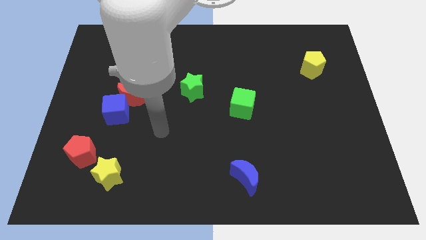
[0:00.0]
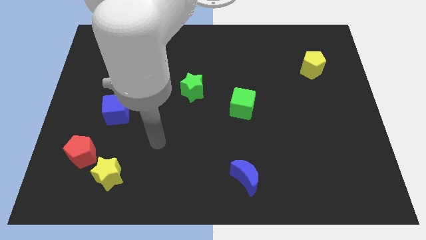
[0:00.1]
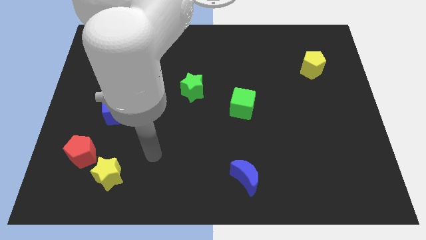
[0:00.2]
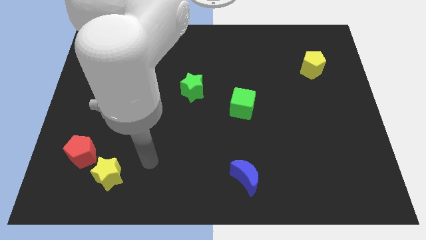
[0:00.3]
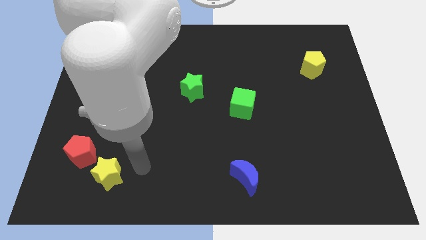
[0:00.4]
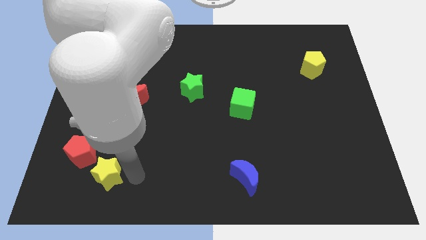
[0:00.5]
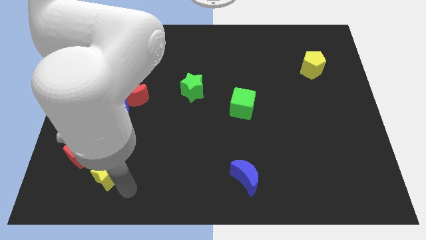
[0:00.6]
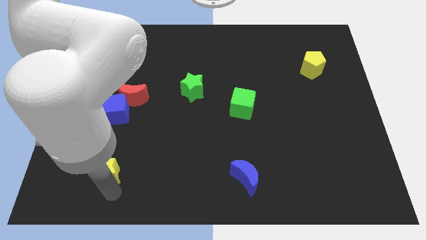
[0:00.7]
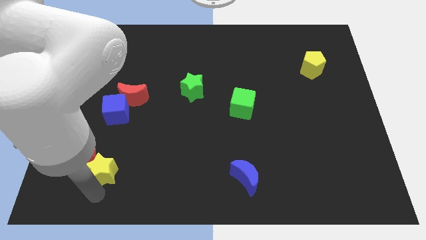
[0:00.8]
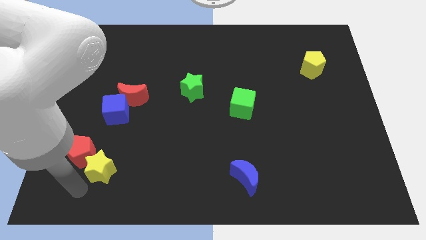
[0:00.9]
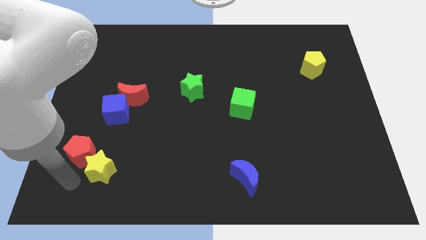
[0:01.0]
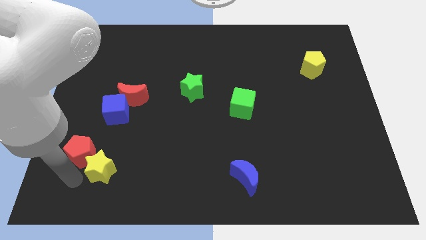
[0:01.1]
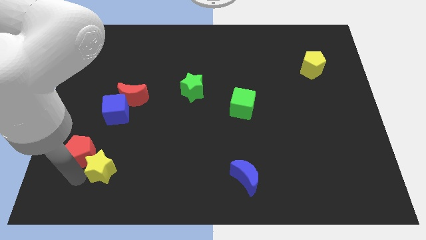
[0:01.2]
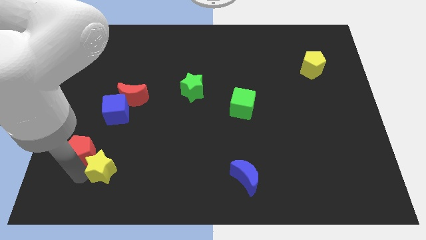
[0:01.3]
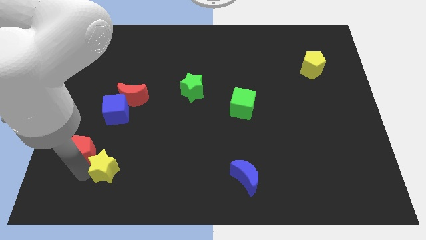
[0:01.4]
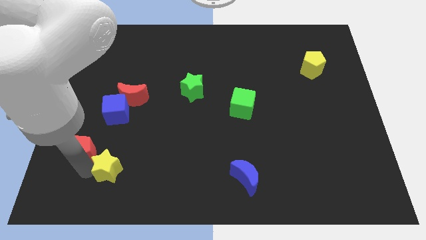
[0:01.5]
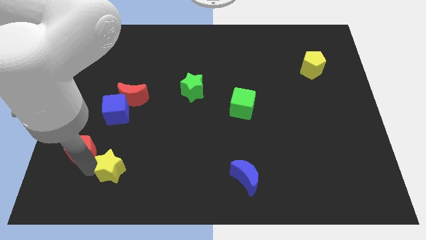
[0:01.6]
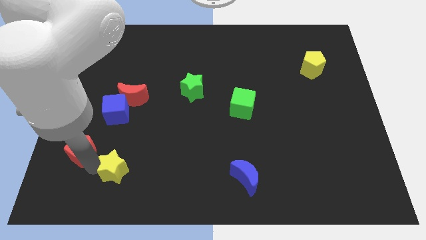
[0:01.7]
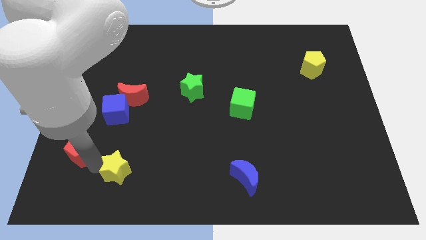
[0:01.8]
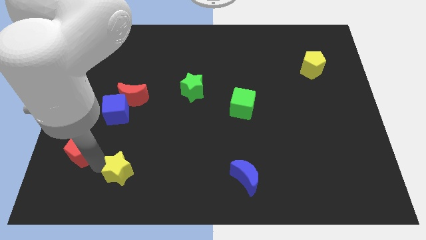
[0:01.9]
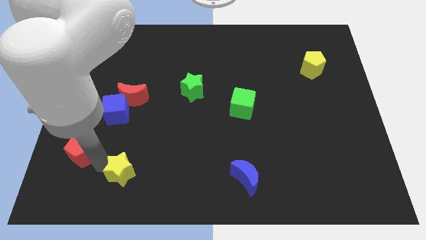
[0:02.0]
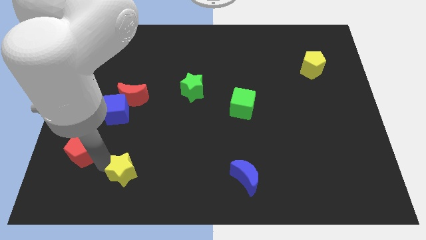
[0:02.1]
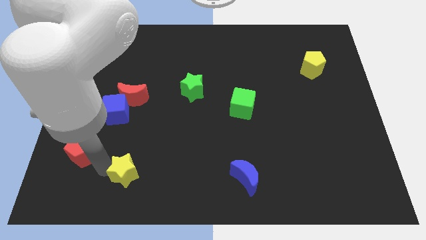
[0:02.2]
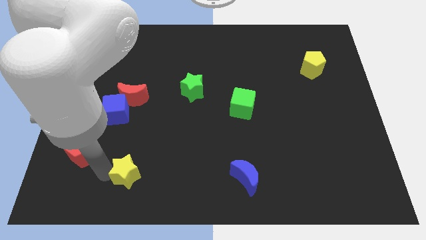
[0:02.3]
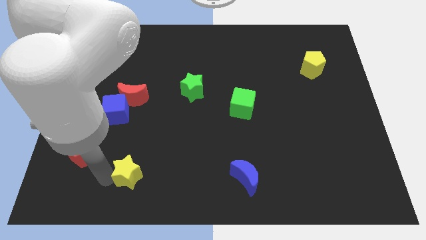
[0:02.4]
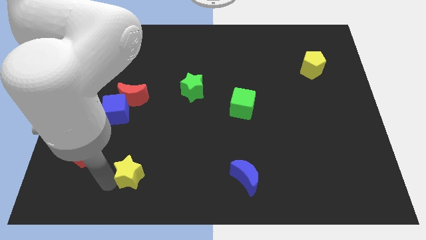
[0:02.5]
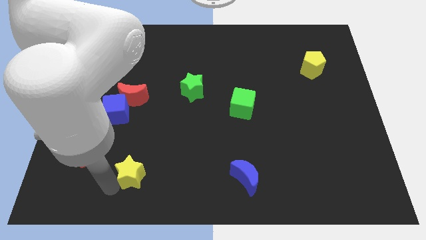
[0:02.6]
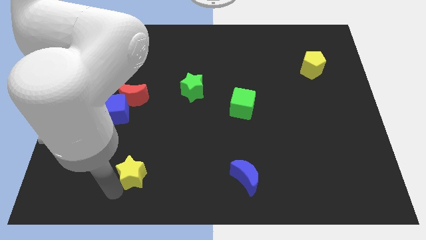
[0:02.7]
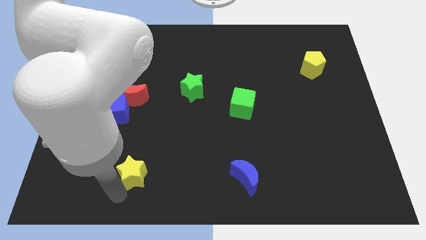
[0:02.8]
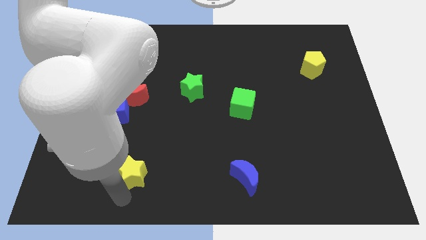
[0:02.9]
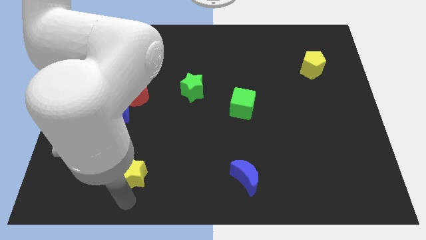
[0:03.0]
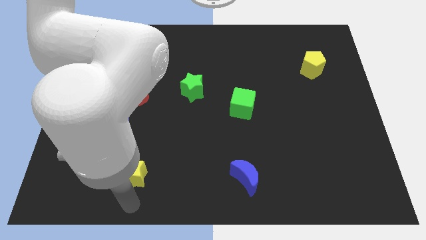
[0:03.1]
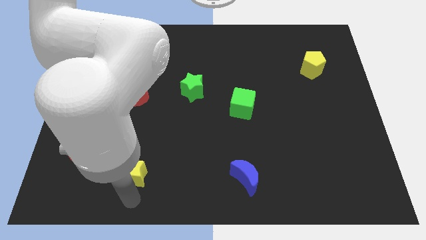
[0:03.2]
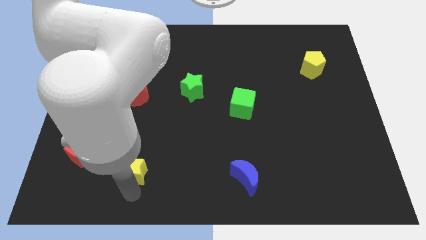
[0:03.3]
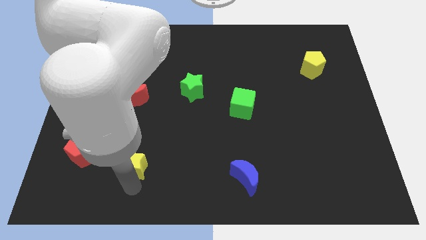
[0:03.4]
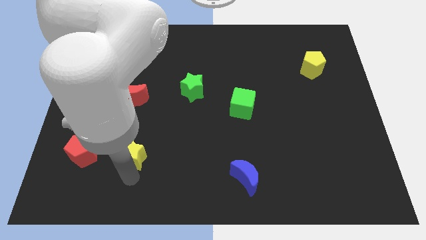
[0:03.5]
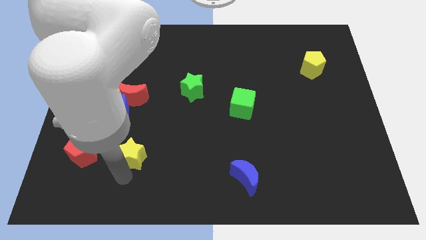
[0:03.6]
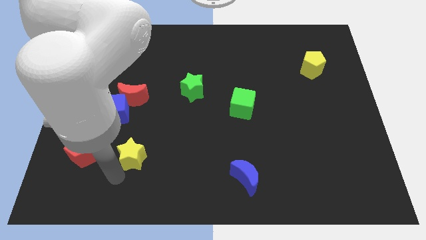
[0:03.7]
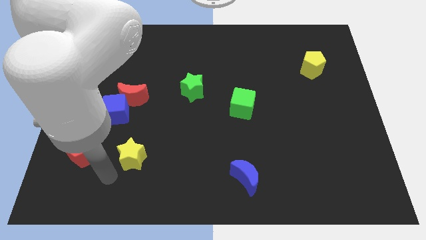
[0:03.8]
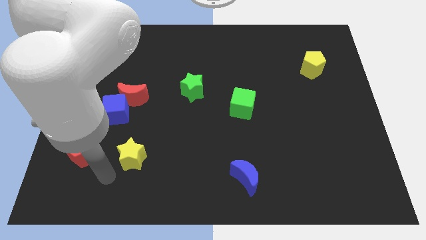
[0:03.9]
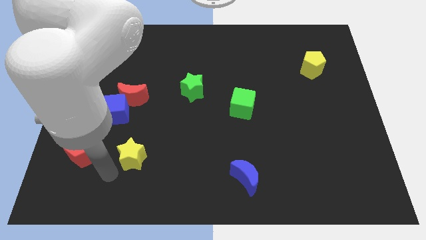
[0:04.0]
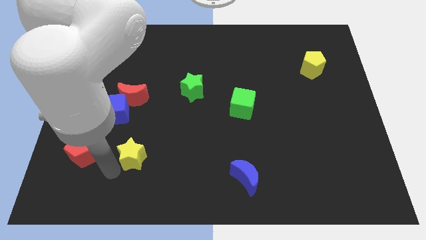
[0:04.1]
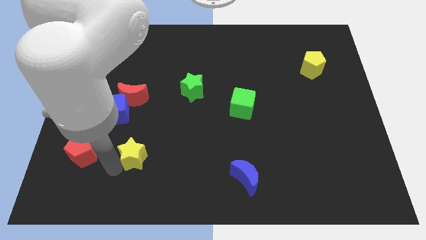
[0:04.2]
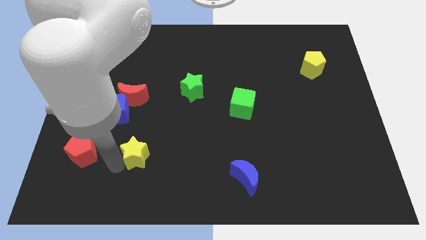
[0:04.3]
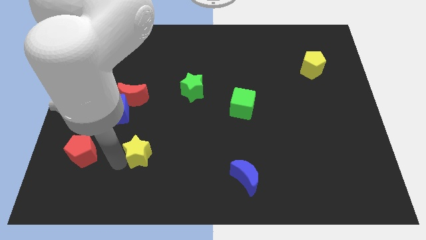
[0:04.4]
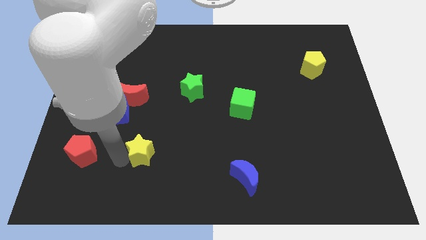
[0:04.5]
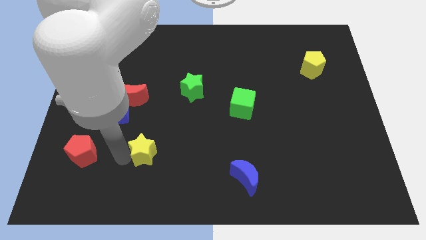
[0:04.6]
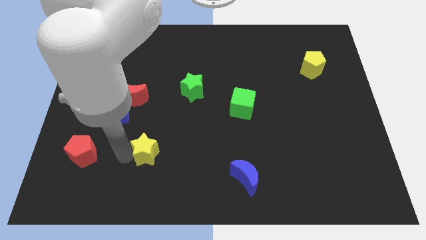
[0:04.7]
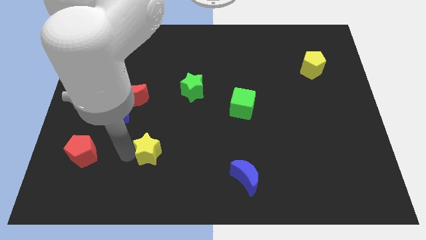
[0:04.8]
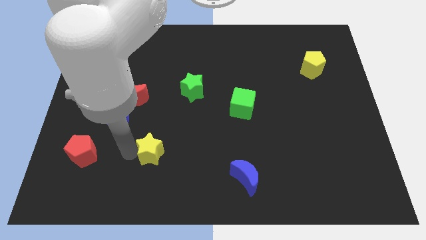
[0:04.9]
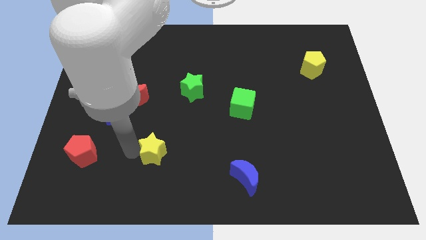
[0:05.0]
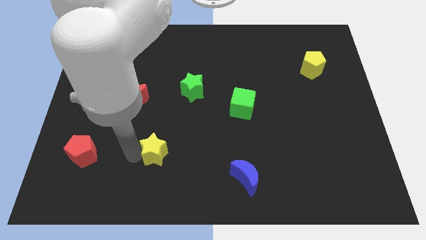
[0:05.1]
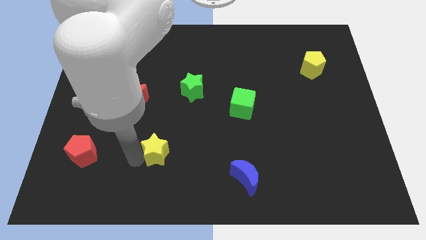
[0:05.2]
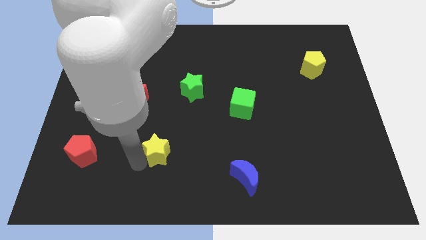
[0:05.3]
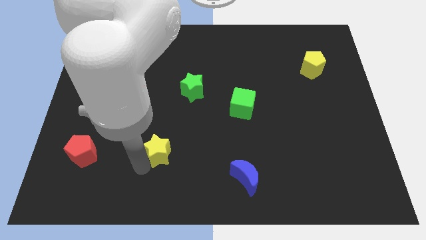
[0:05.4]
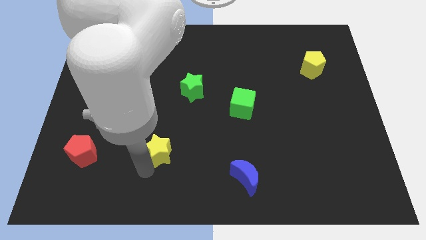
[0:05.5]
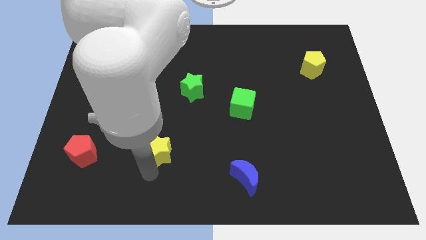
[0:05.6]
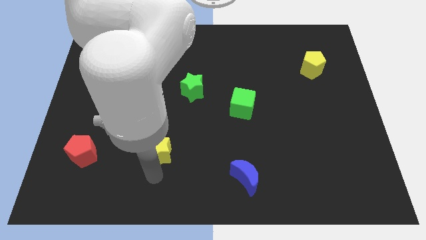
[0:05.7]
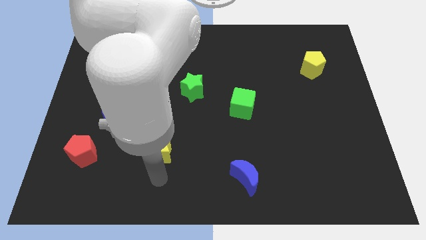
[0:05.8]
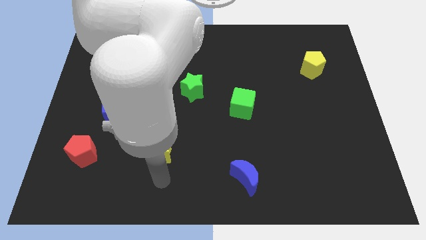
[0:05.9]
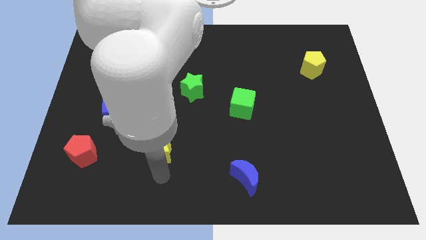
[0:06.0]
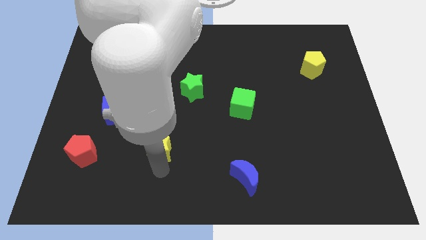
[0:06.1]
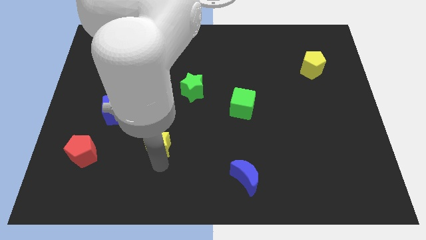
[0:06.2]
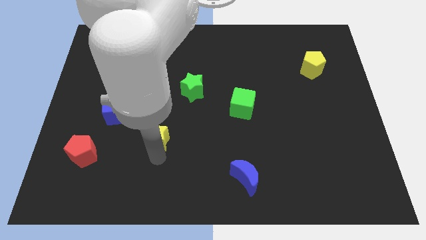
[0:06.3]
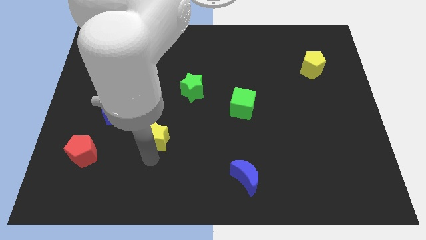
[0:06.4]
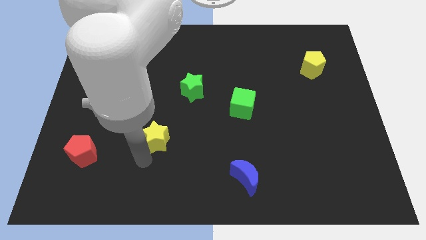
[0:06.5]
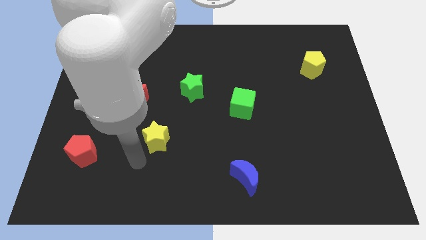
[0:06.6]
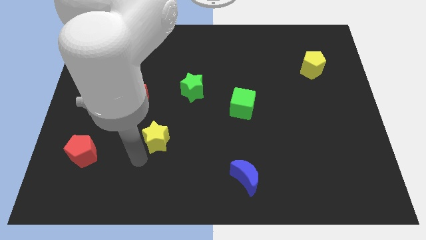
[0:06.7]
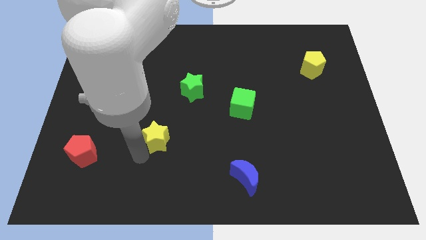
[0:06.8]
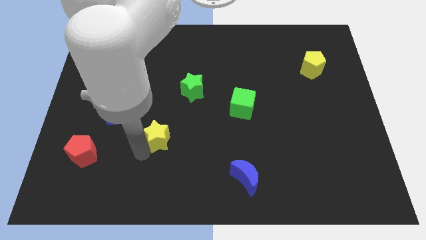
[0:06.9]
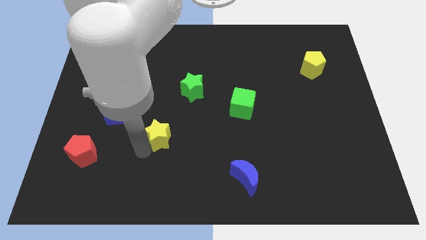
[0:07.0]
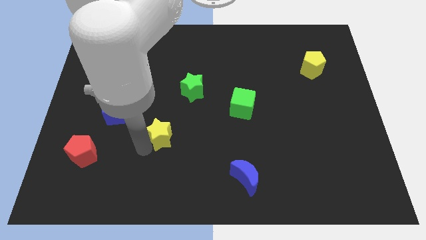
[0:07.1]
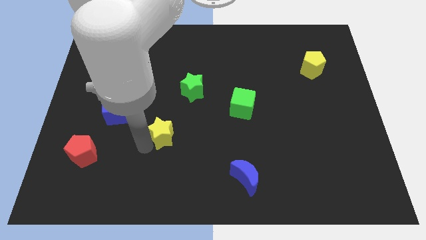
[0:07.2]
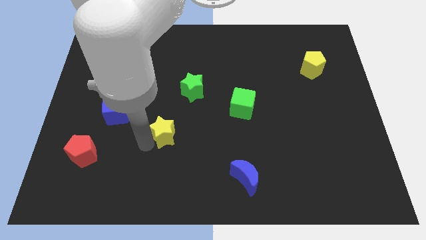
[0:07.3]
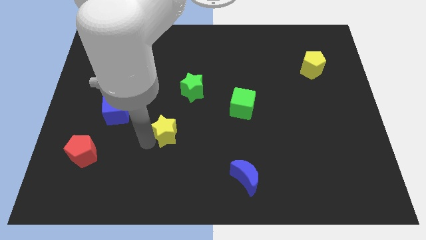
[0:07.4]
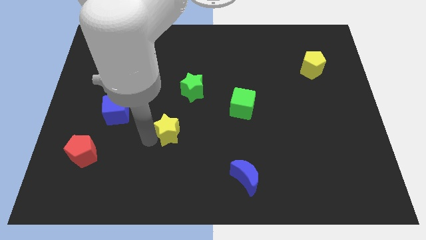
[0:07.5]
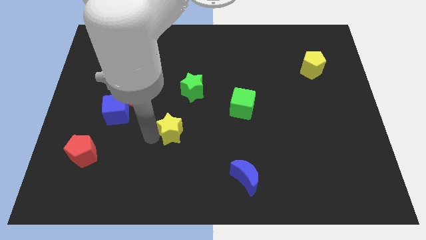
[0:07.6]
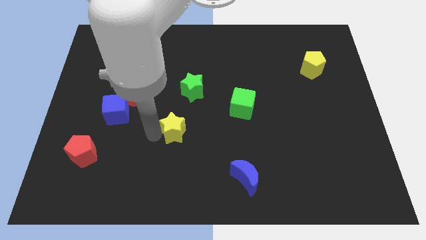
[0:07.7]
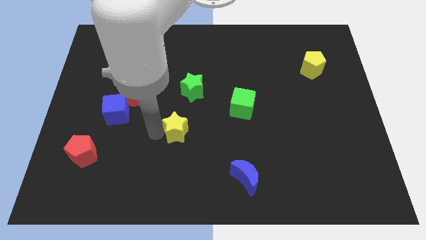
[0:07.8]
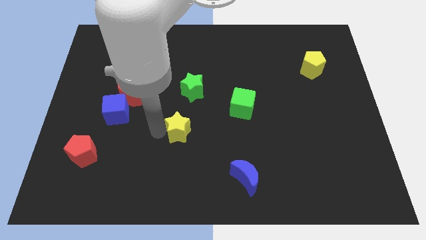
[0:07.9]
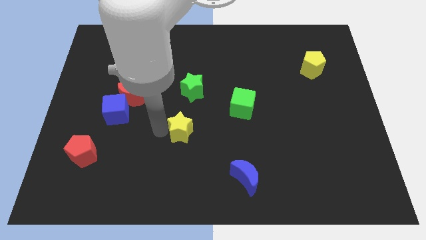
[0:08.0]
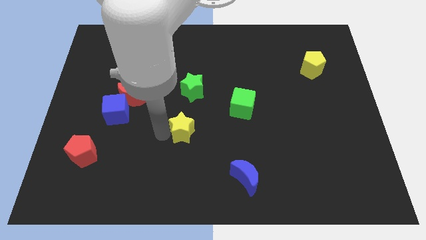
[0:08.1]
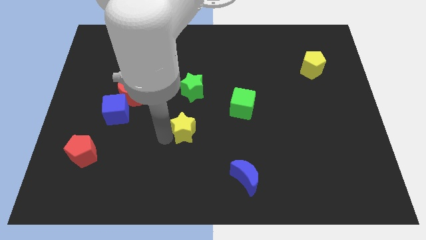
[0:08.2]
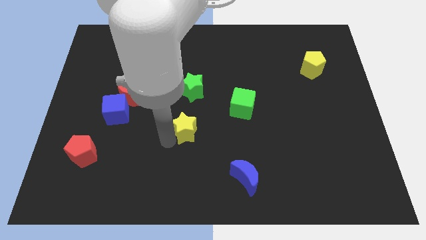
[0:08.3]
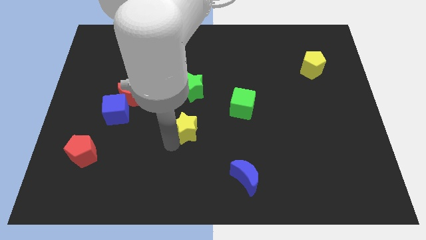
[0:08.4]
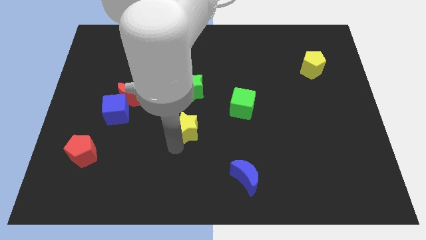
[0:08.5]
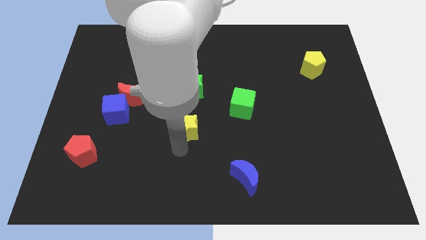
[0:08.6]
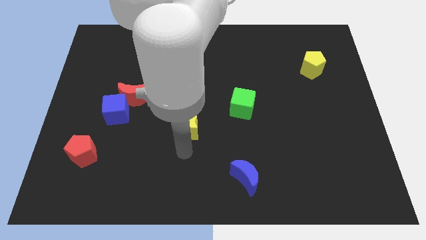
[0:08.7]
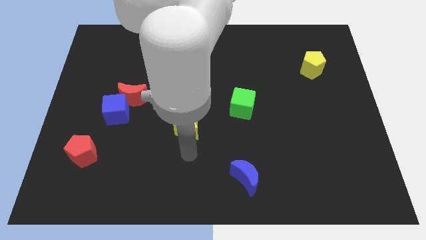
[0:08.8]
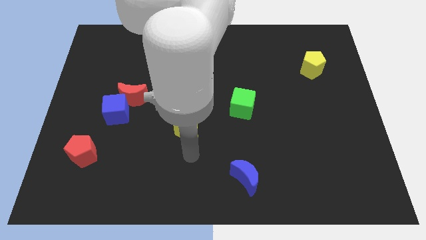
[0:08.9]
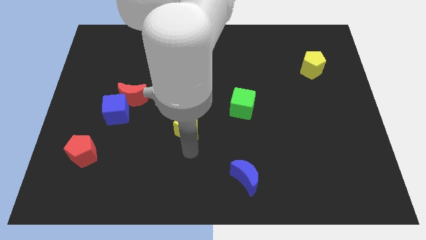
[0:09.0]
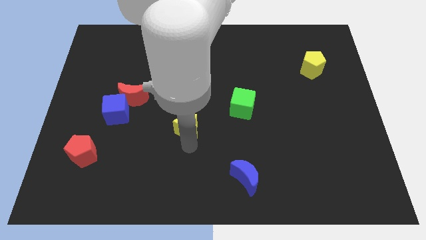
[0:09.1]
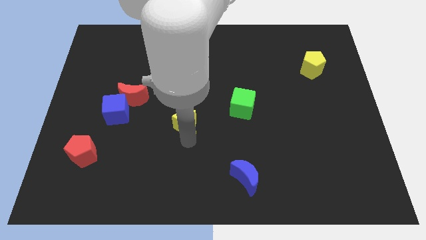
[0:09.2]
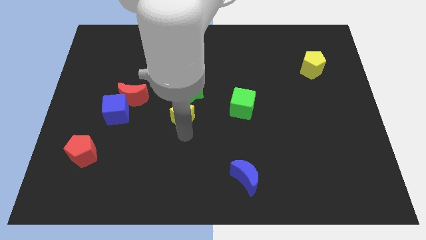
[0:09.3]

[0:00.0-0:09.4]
move the yellow star to the left side of the green cube
